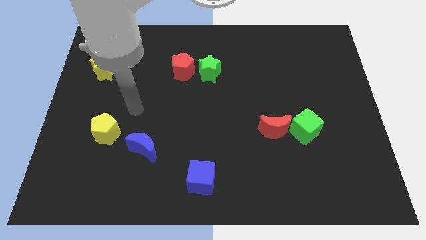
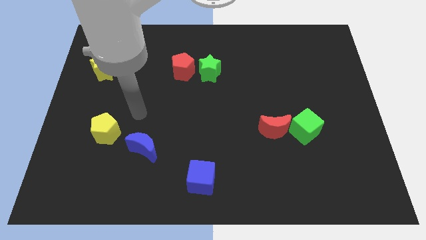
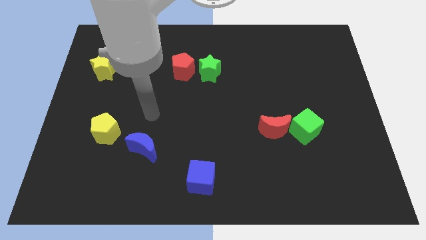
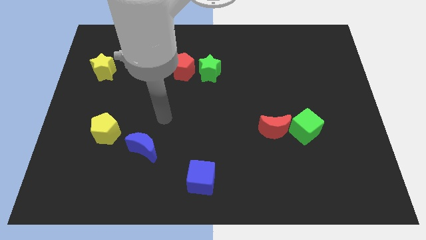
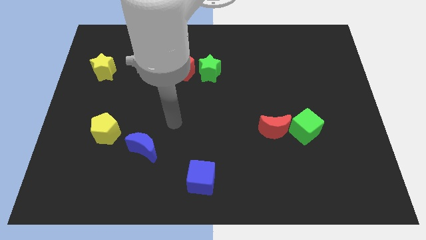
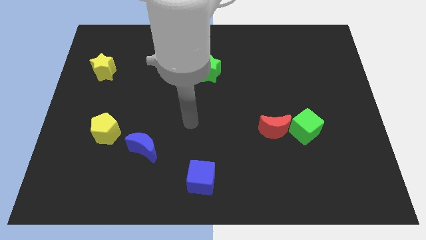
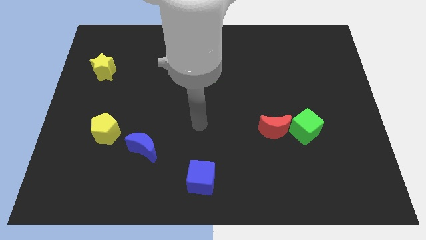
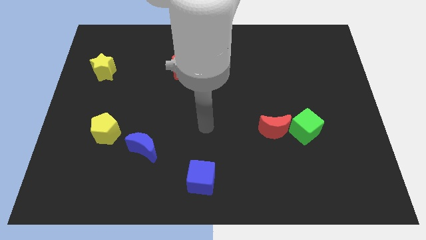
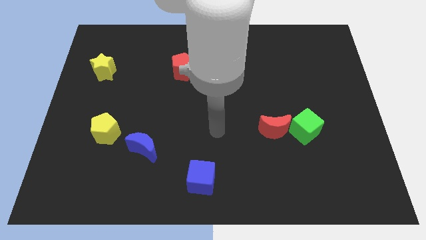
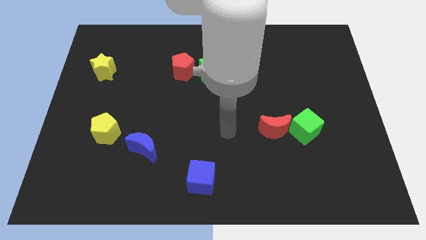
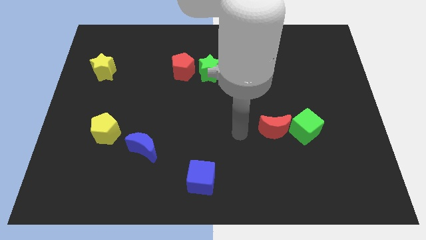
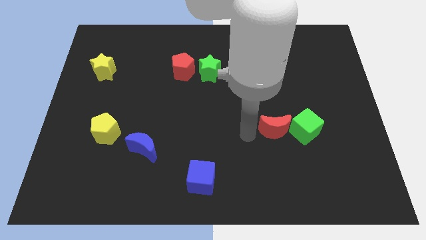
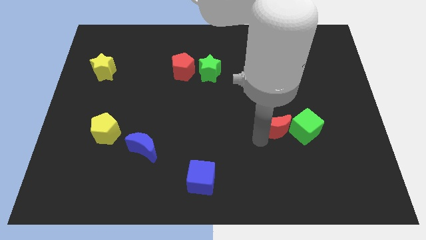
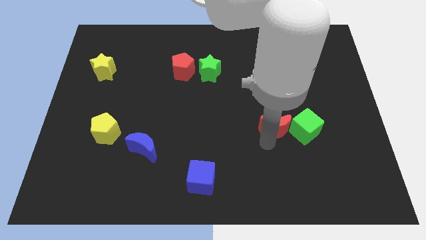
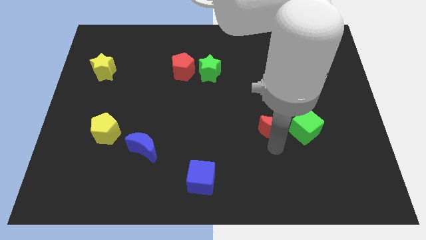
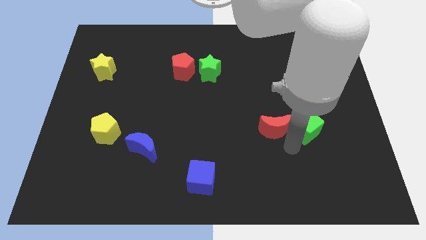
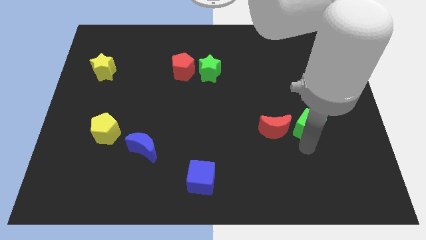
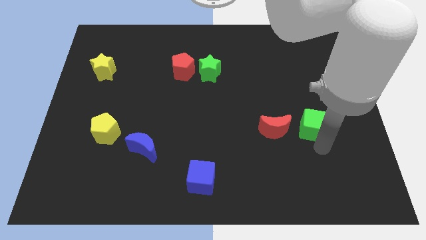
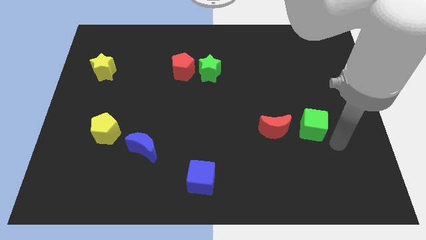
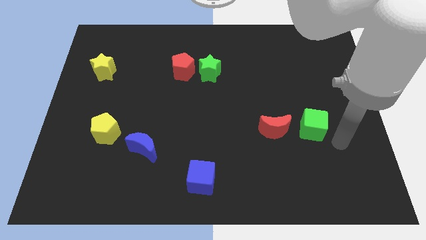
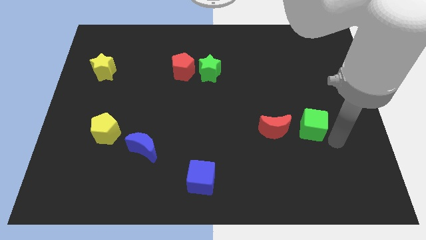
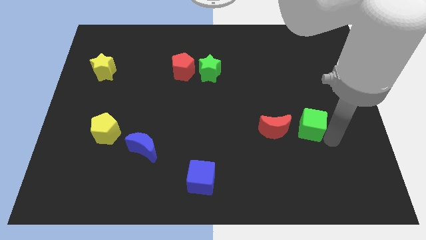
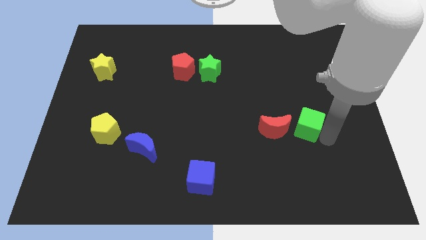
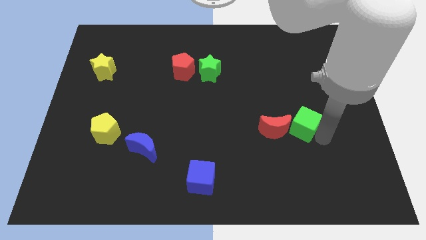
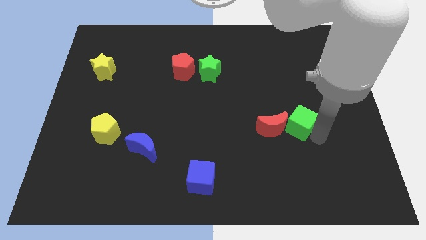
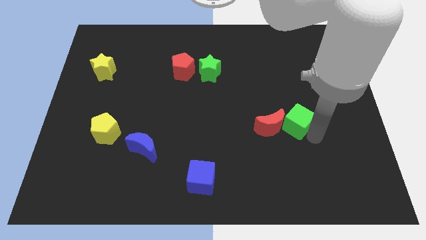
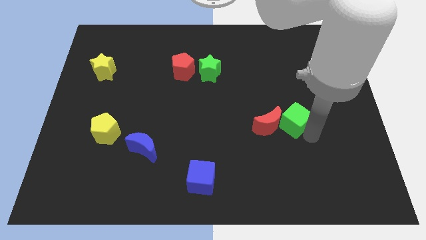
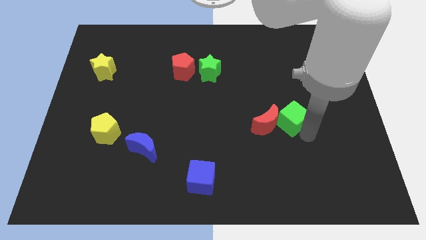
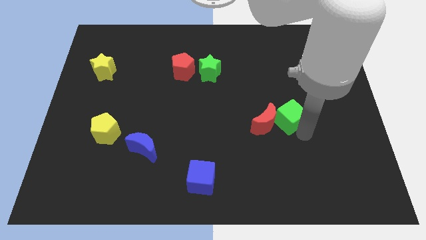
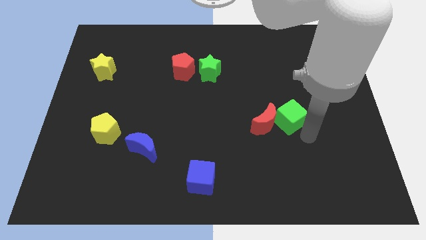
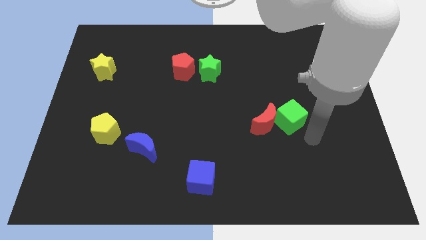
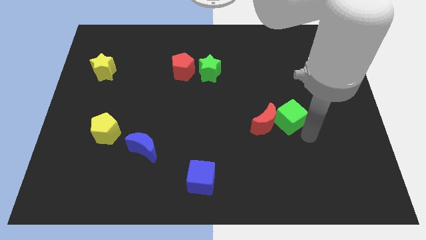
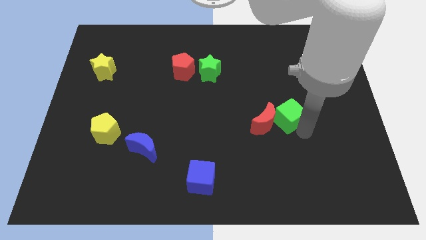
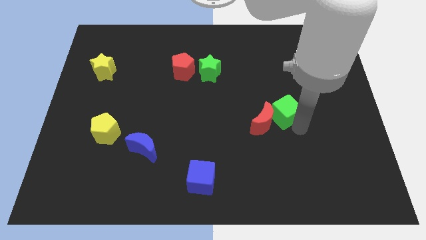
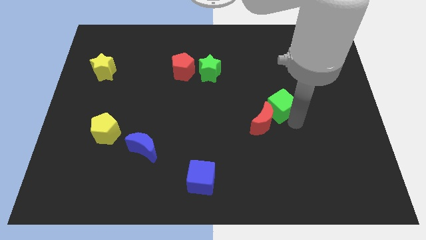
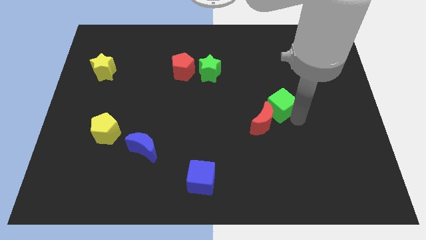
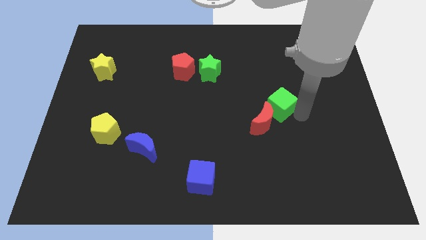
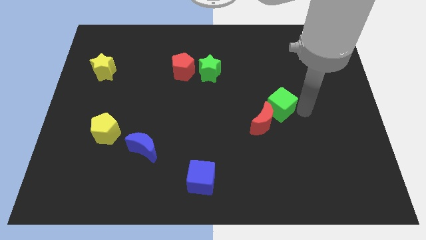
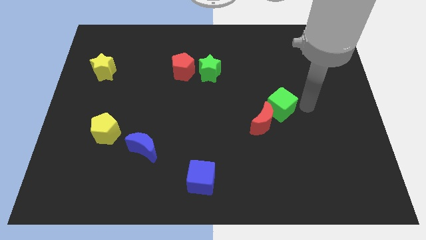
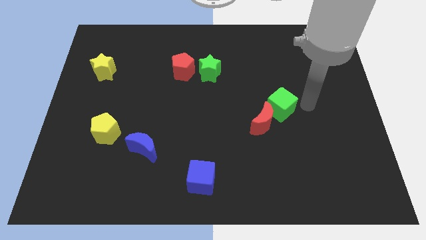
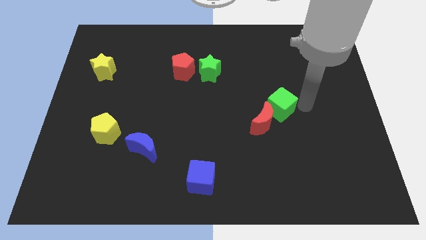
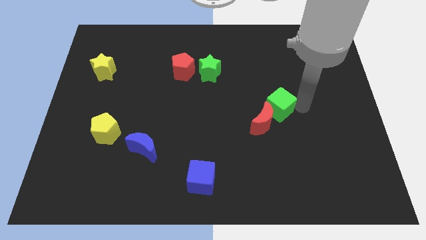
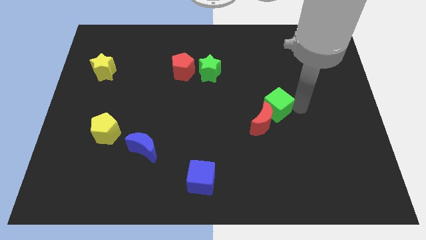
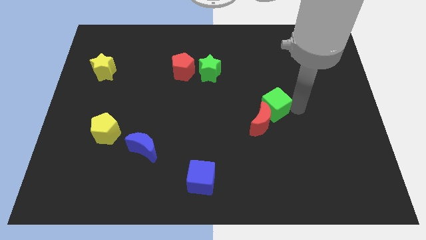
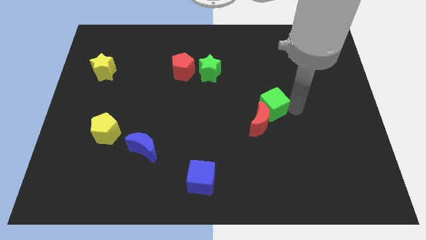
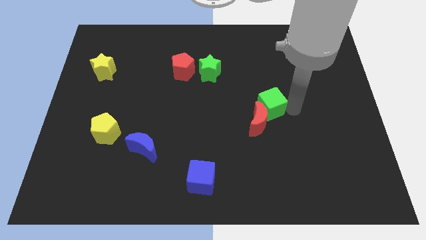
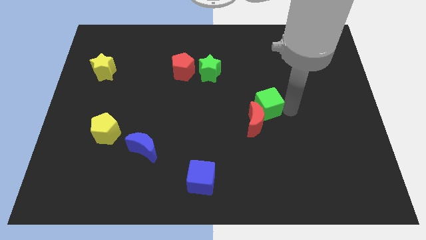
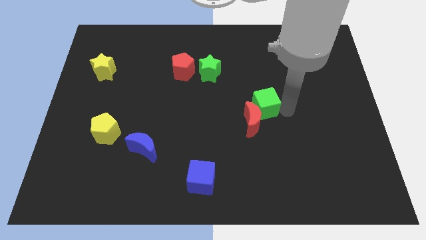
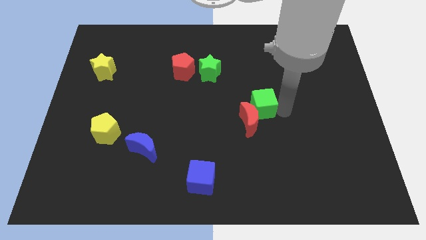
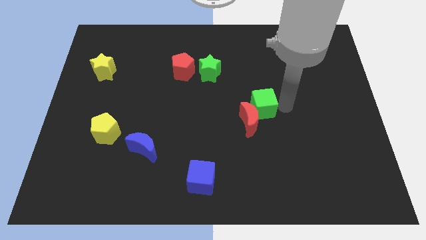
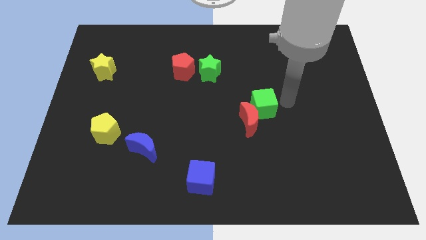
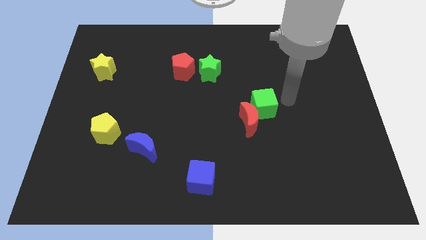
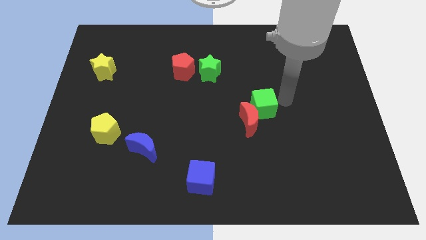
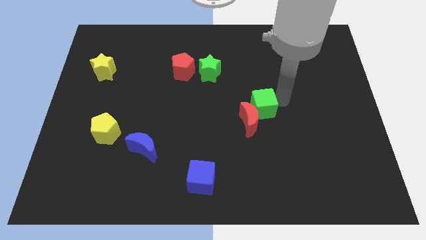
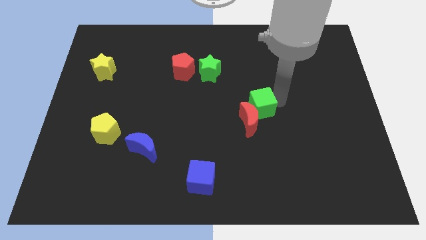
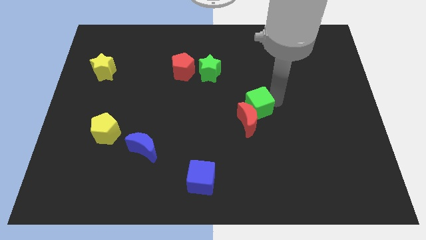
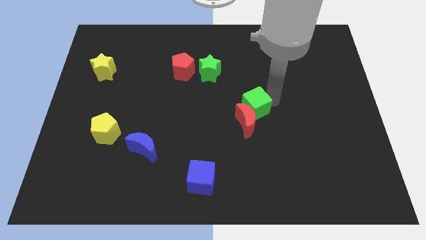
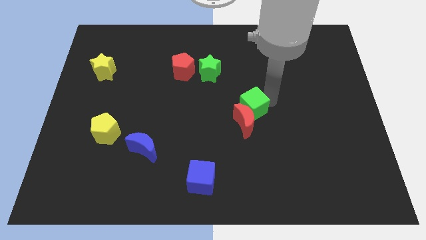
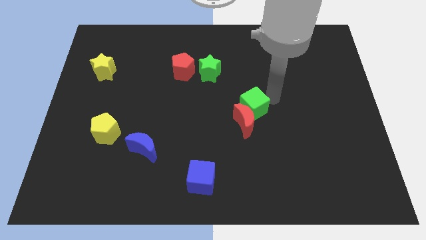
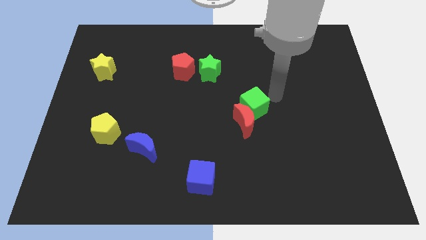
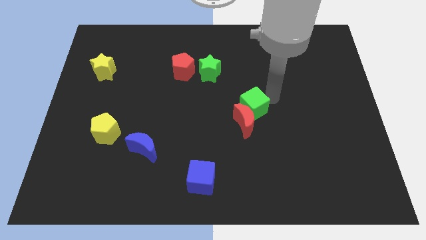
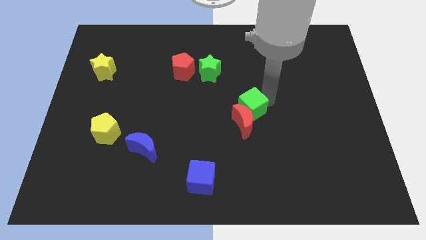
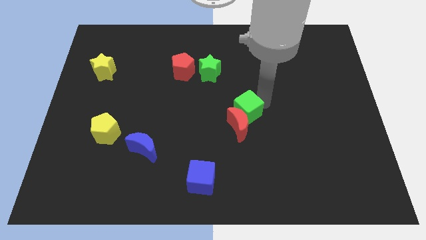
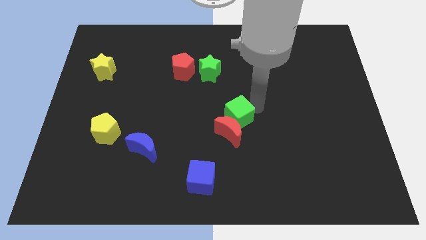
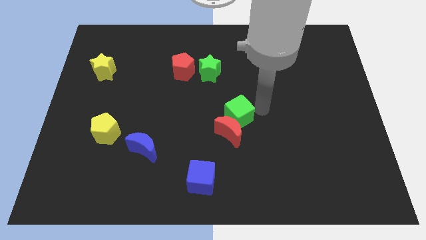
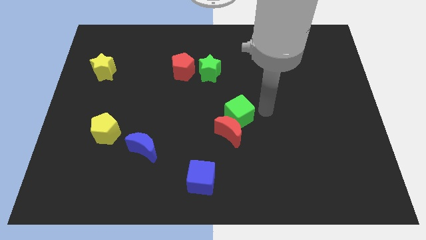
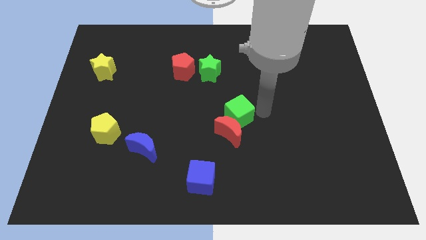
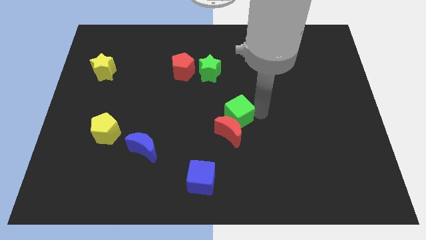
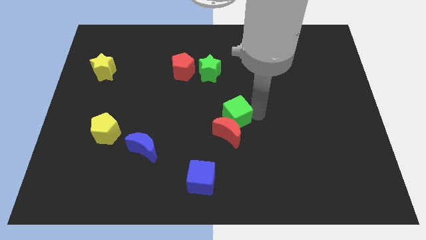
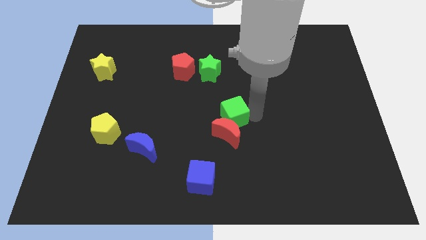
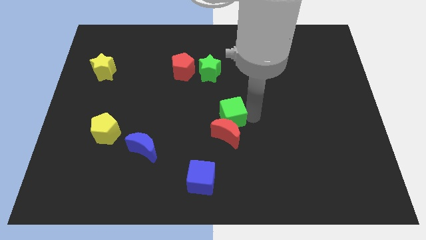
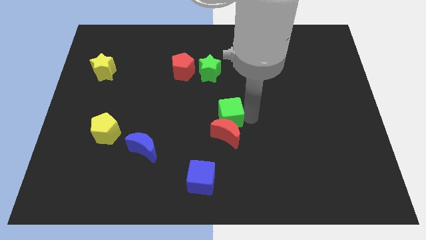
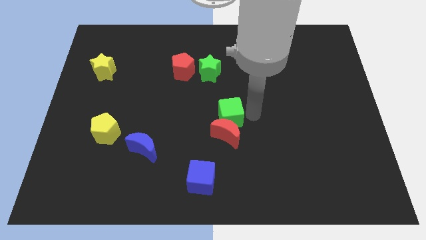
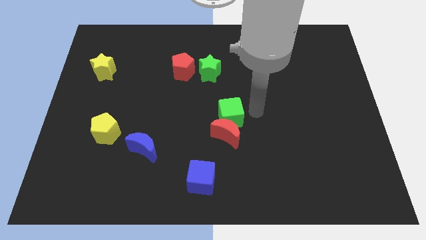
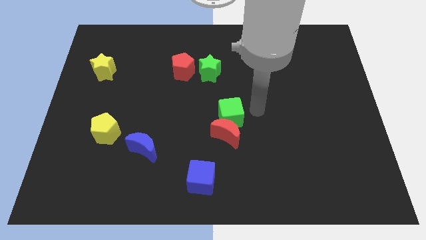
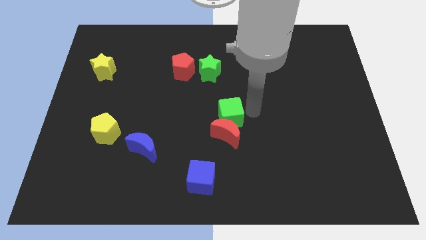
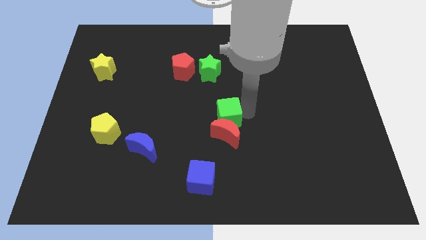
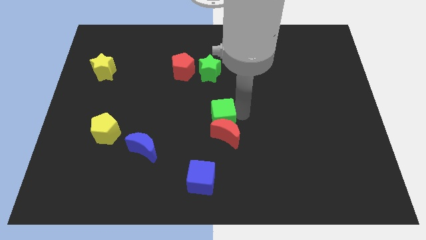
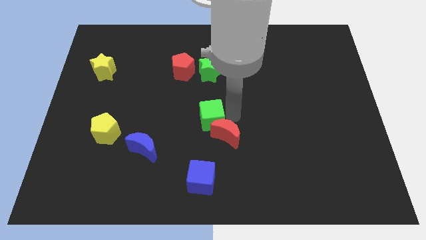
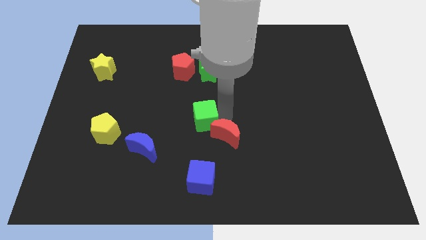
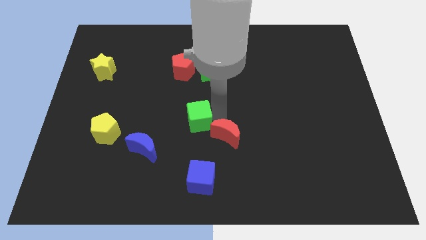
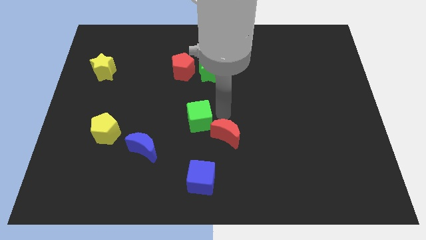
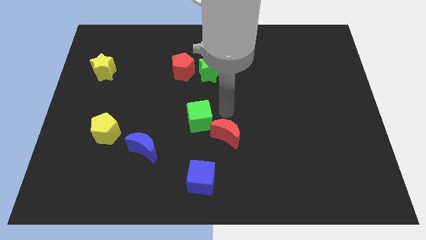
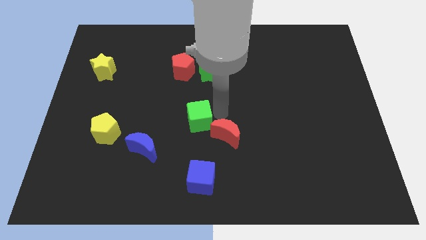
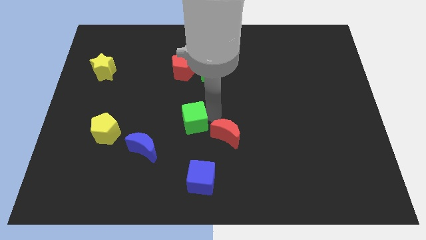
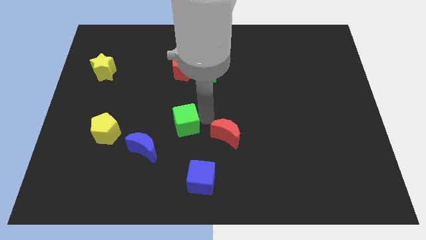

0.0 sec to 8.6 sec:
slide the green cube to the top right of the blue moon
